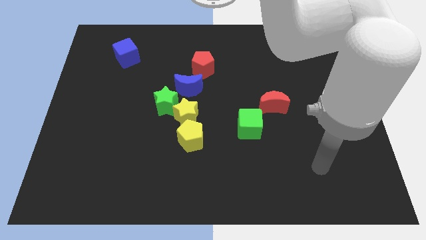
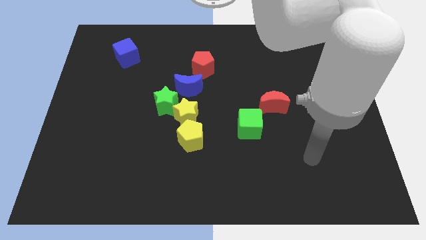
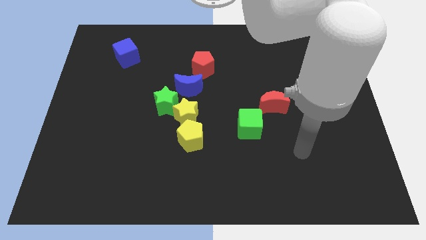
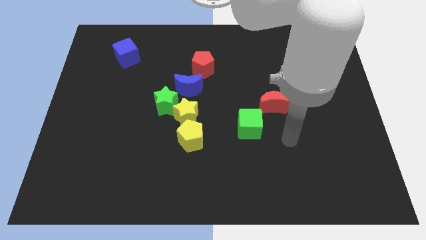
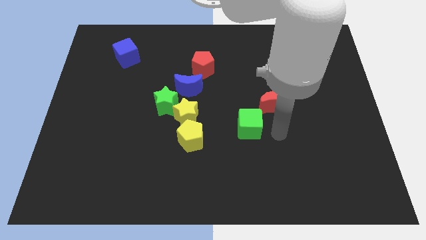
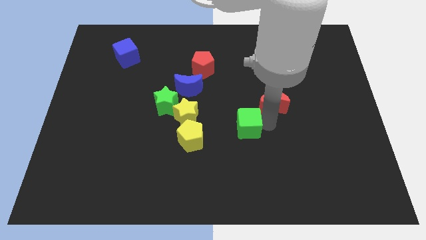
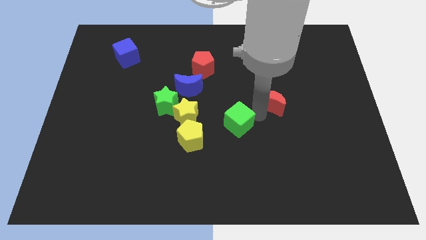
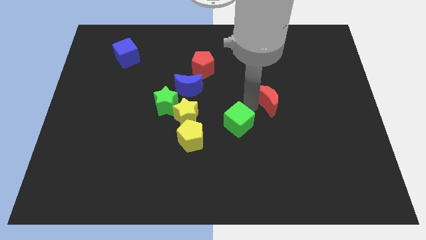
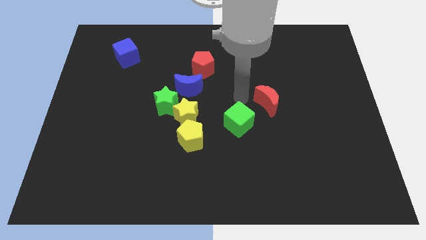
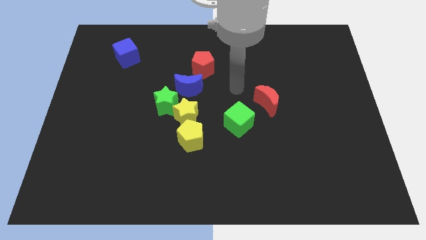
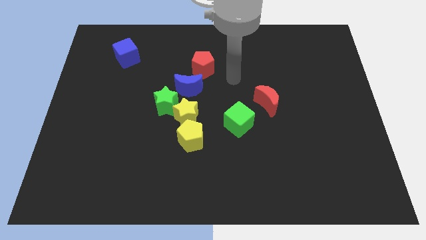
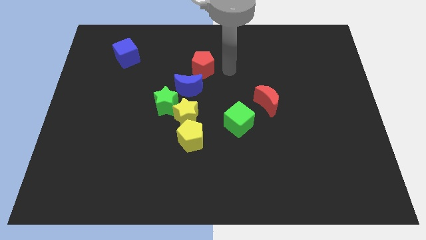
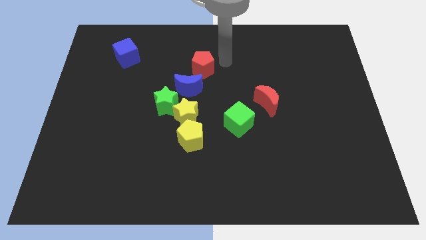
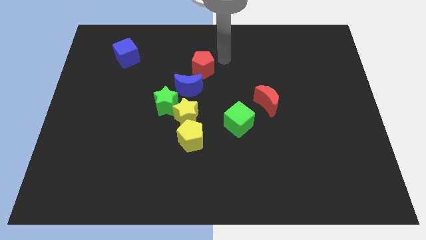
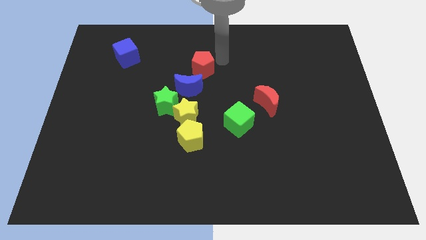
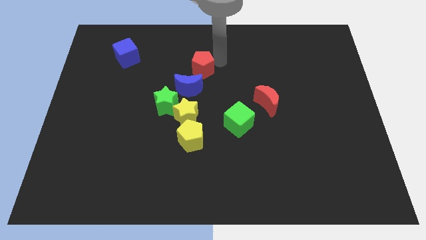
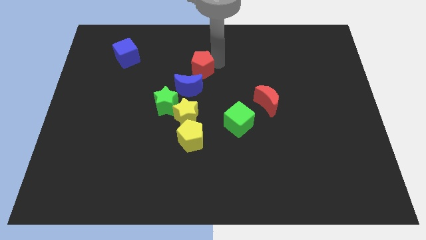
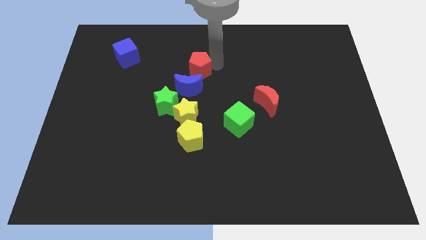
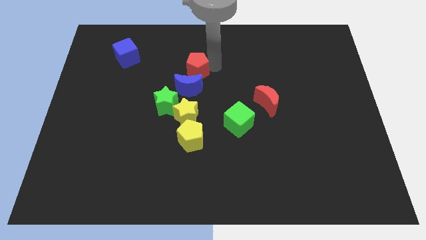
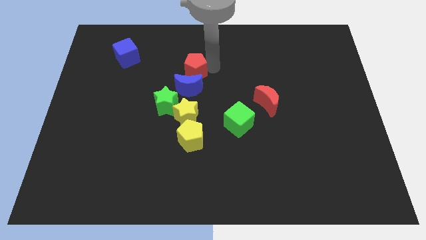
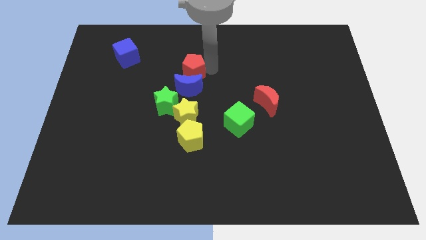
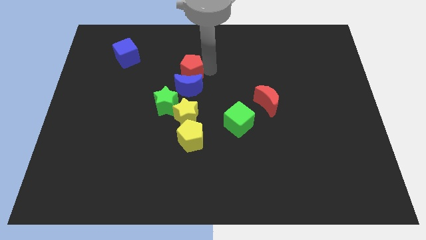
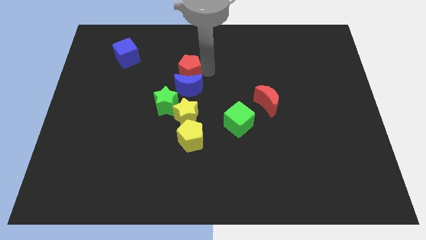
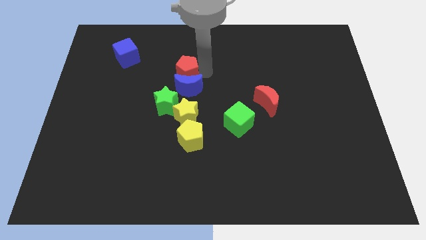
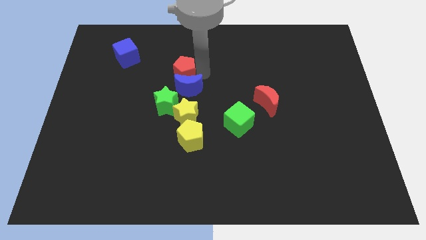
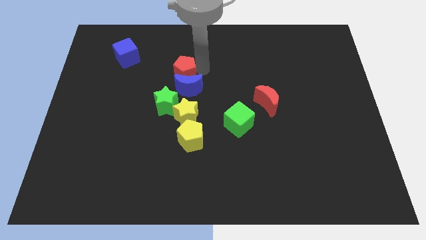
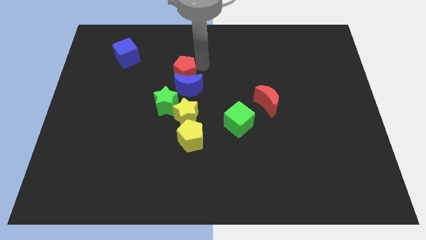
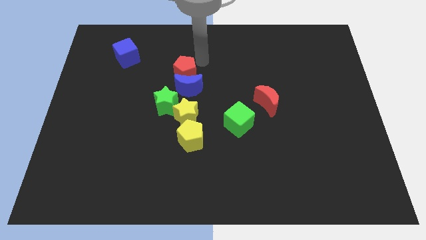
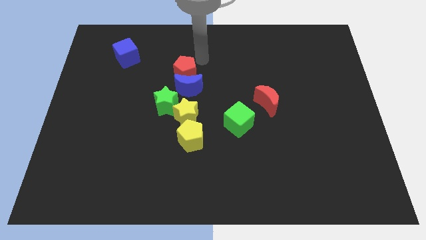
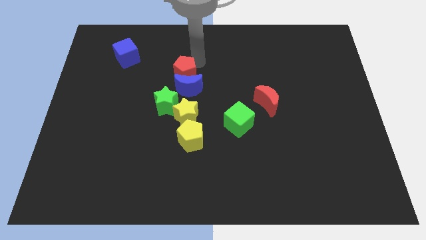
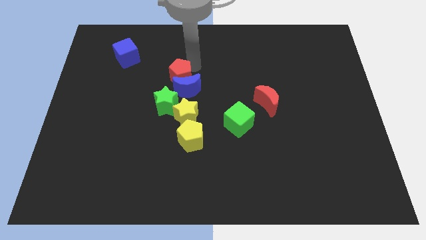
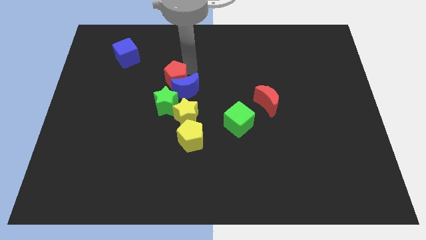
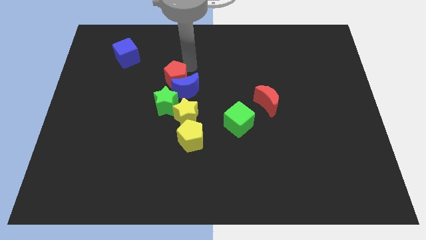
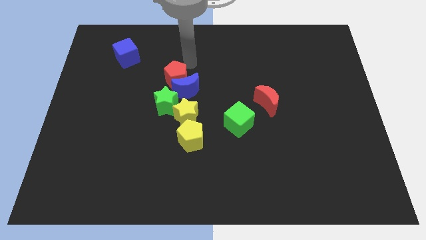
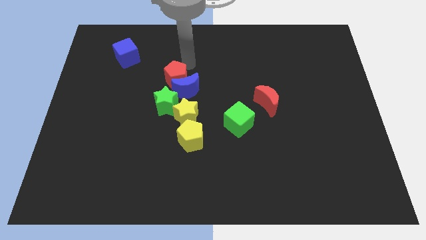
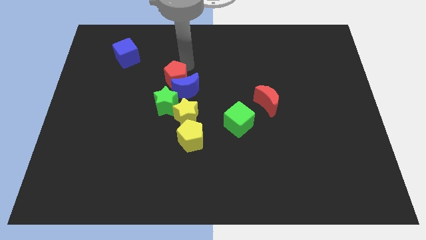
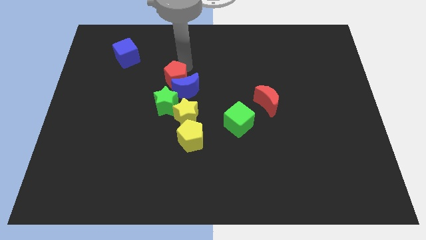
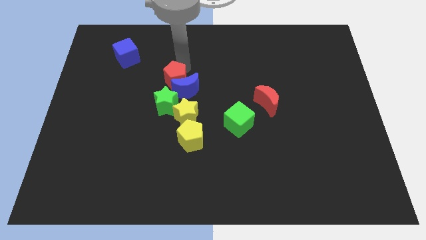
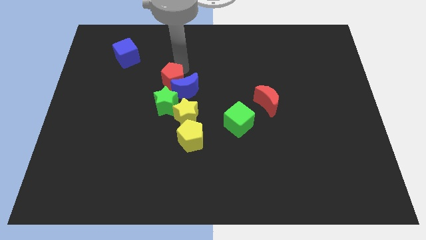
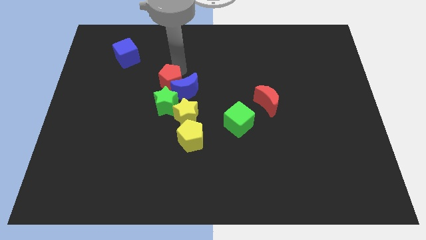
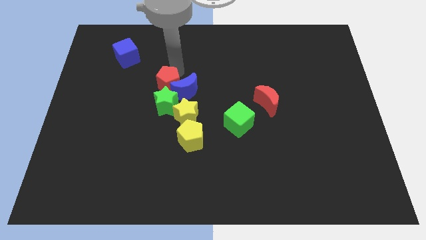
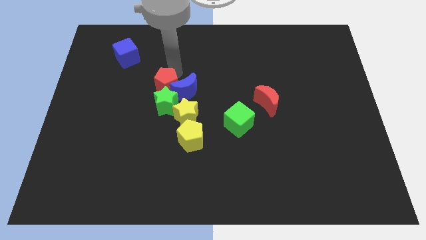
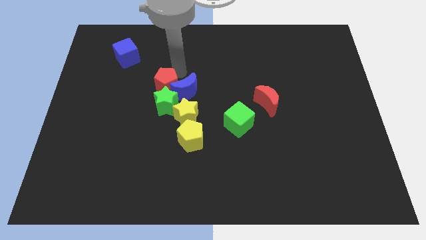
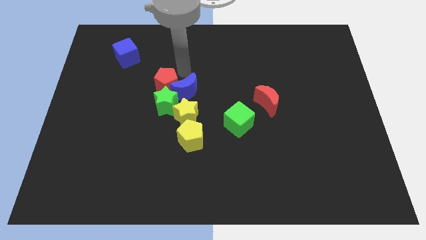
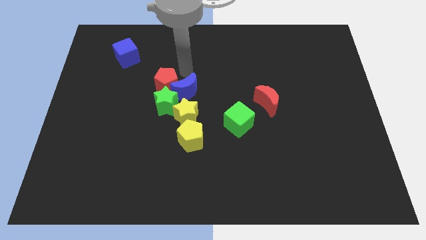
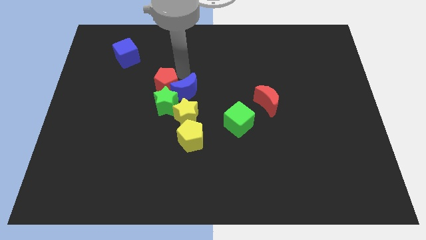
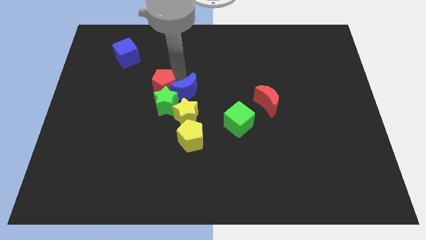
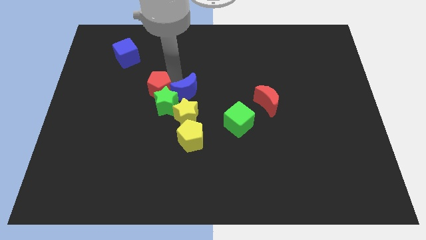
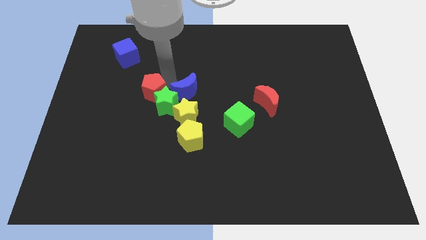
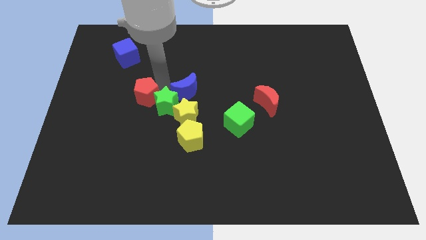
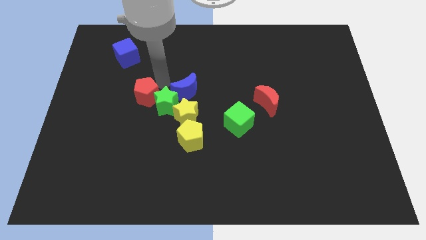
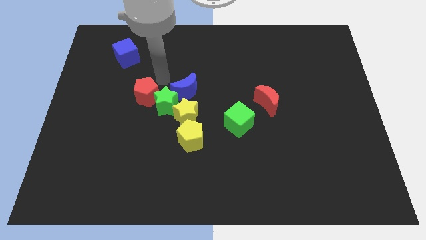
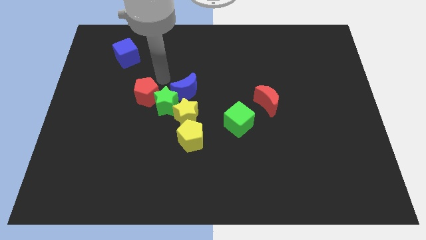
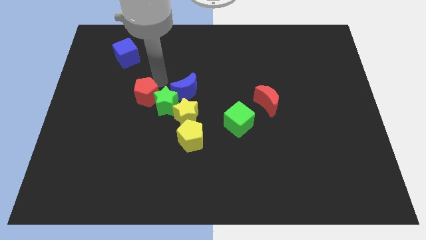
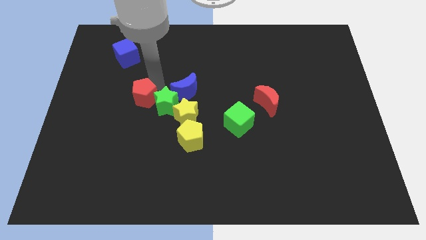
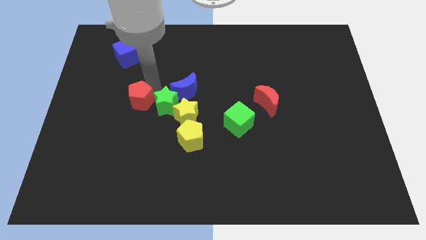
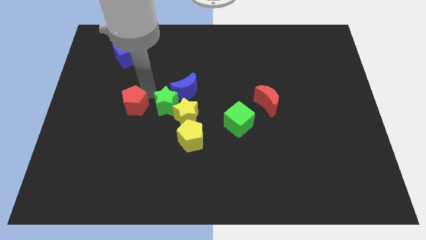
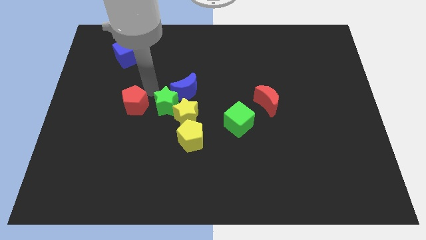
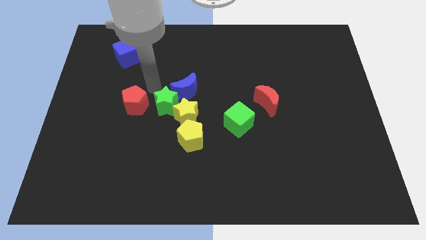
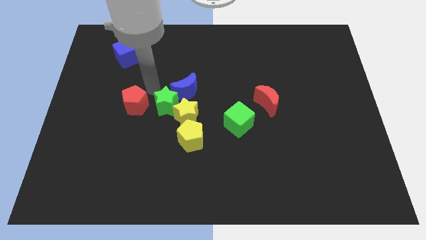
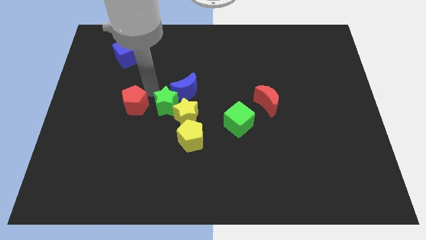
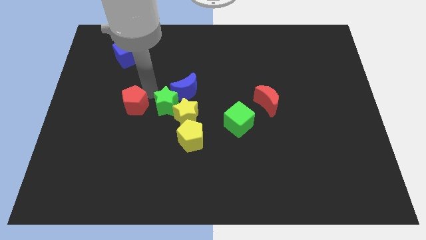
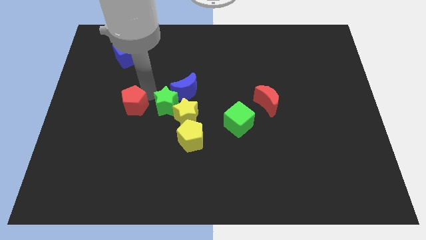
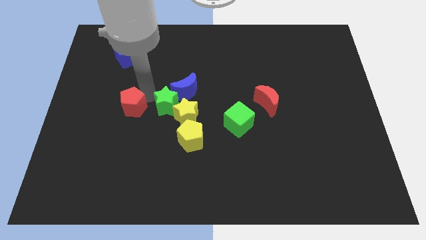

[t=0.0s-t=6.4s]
move the red pentagon downwards and to the left diagonally

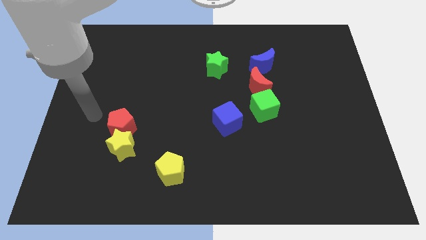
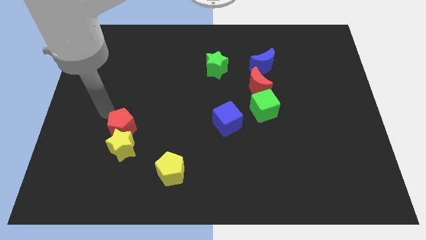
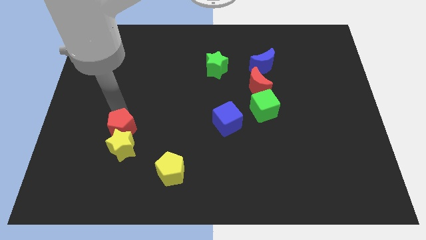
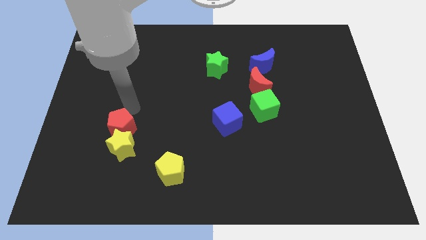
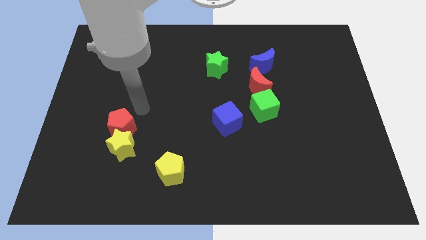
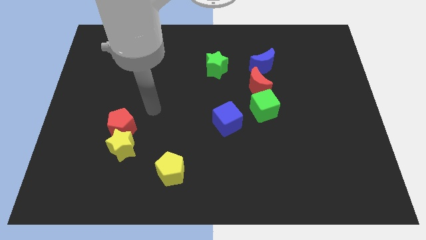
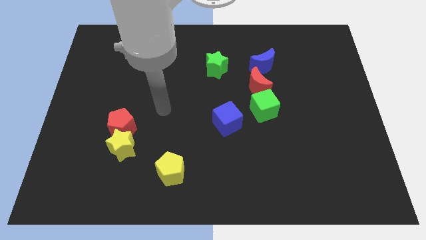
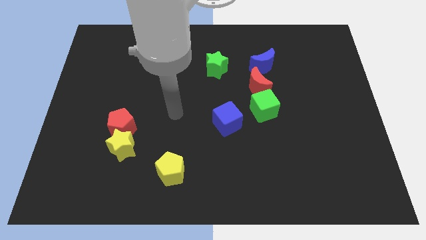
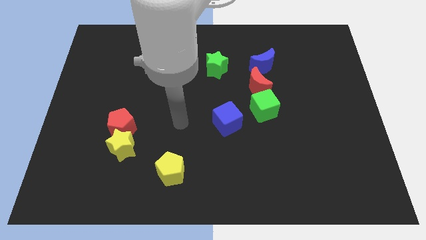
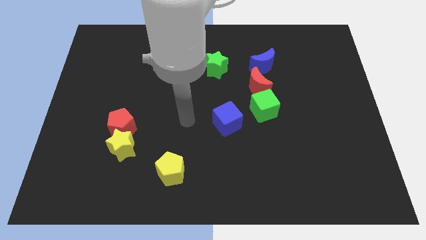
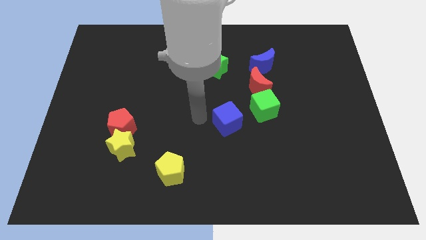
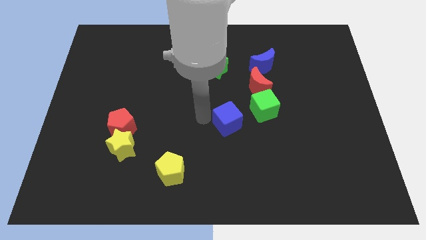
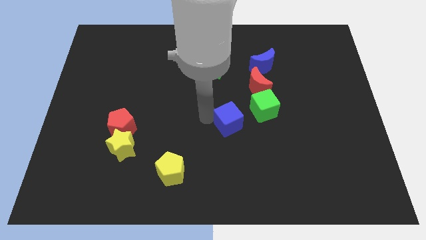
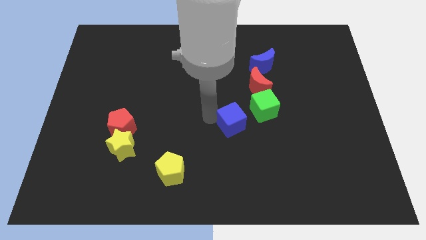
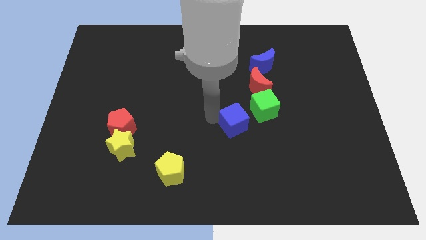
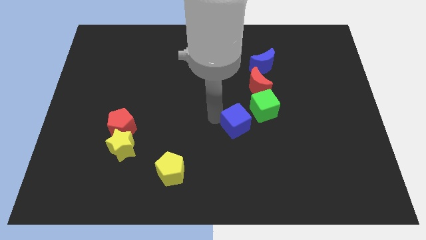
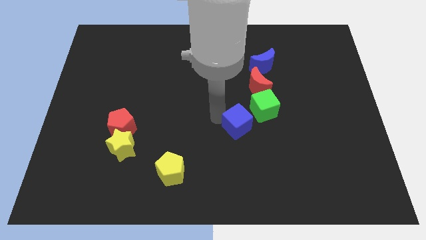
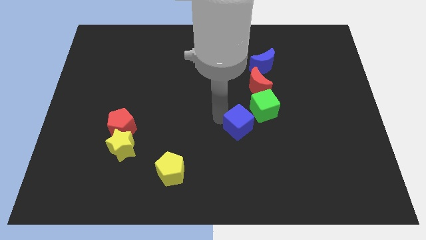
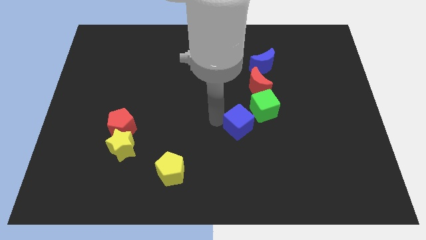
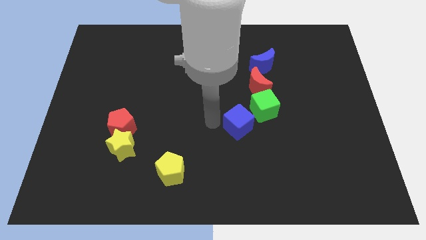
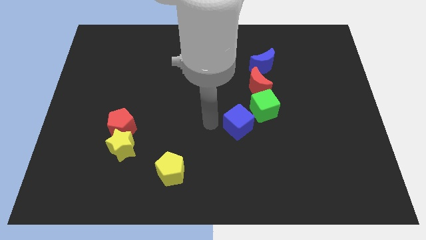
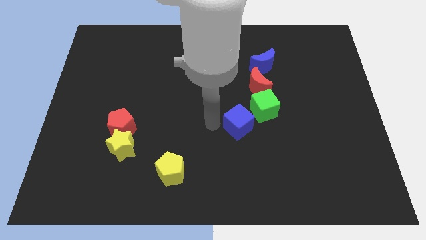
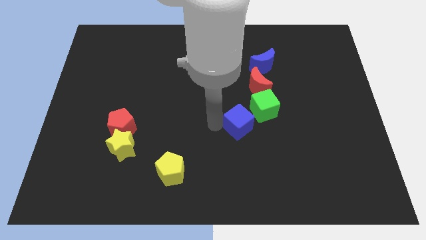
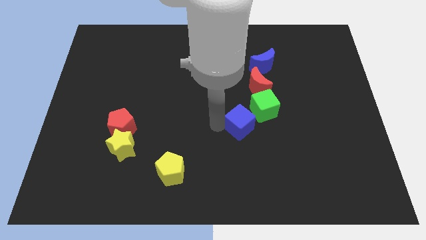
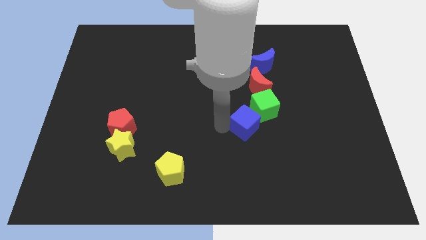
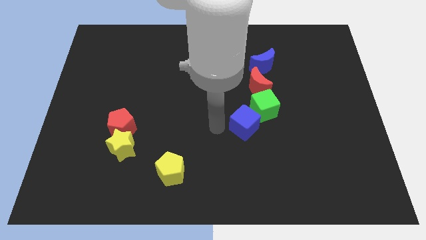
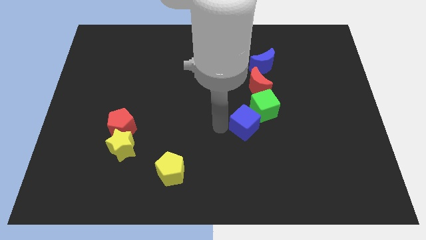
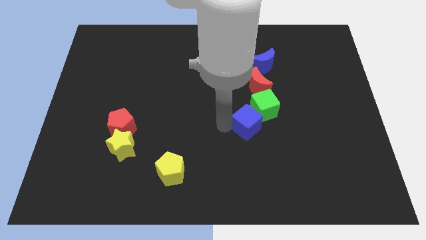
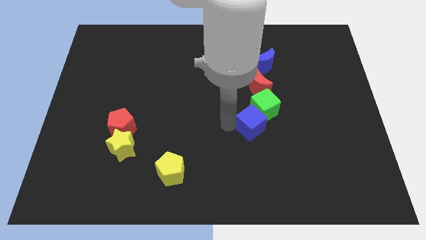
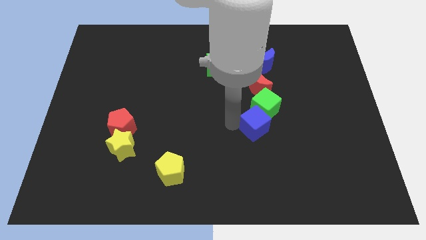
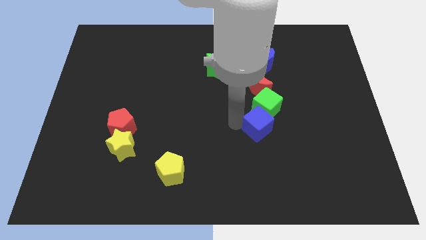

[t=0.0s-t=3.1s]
slide the blue cube right a little
